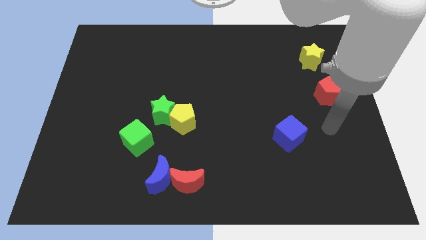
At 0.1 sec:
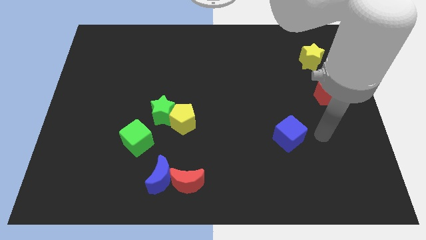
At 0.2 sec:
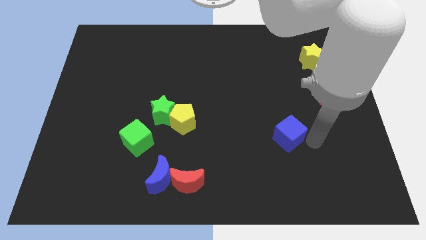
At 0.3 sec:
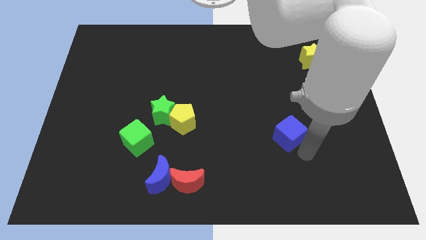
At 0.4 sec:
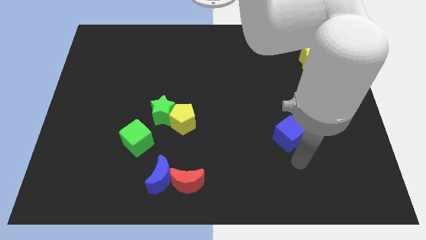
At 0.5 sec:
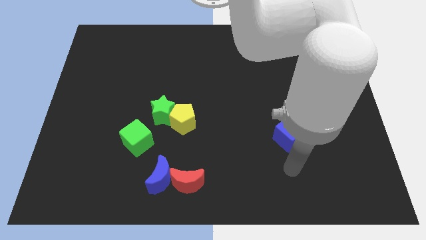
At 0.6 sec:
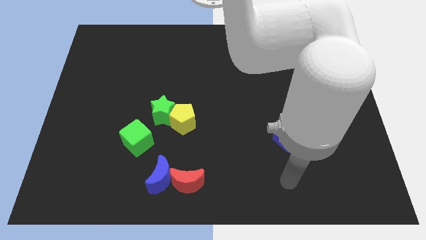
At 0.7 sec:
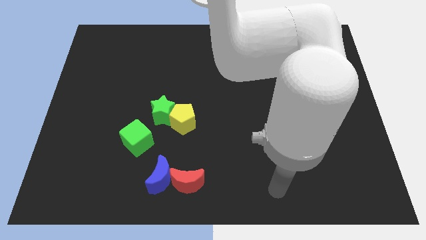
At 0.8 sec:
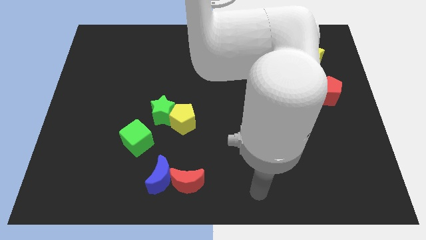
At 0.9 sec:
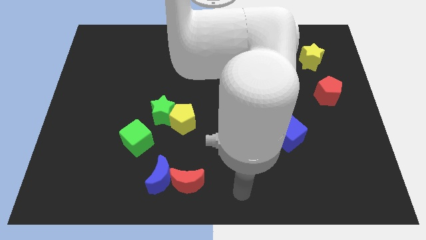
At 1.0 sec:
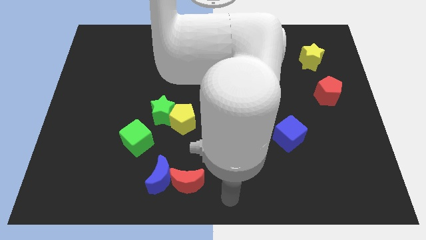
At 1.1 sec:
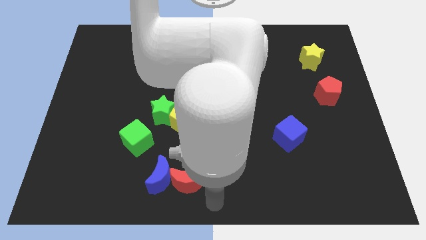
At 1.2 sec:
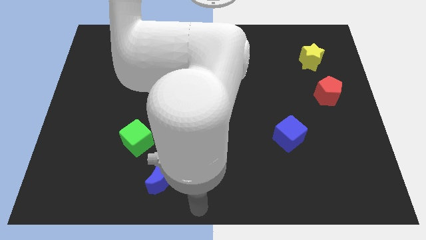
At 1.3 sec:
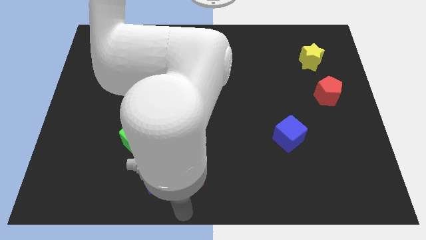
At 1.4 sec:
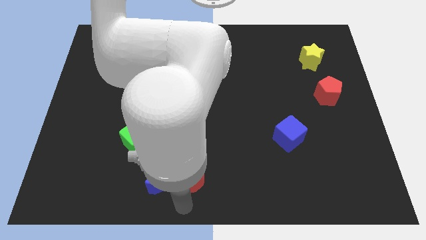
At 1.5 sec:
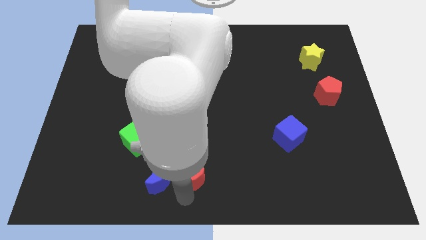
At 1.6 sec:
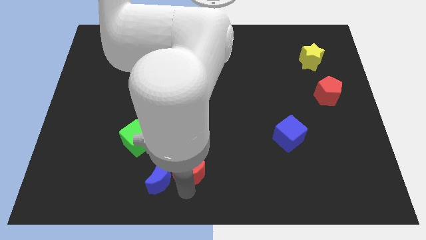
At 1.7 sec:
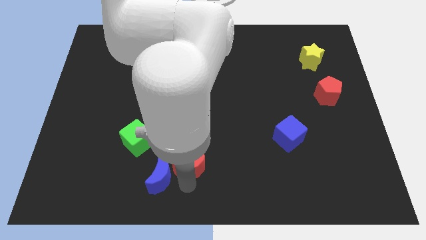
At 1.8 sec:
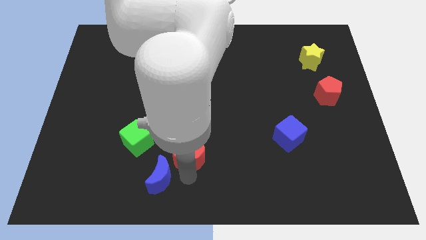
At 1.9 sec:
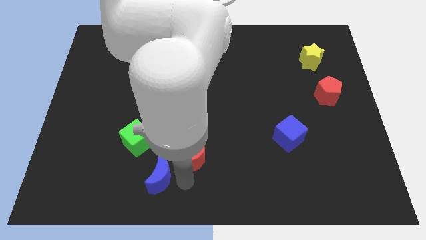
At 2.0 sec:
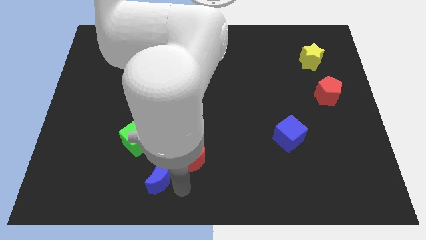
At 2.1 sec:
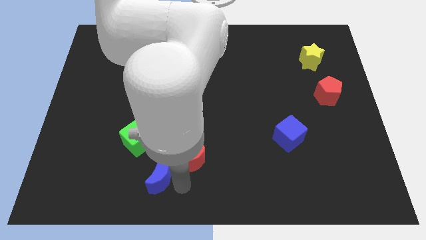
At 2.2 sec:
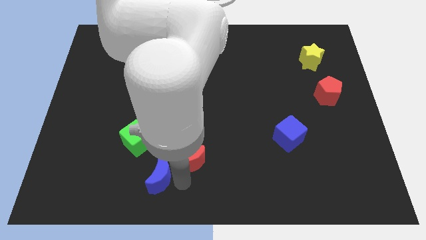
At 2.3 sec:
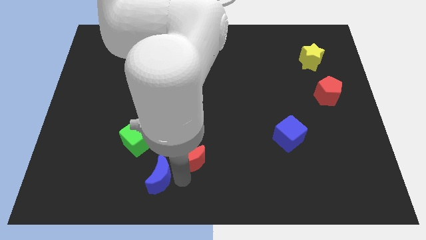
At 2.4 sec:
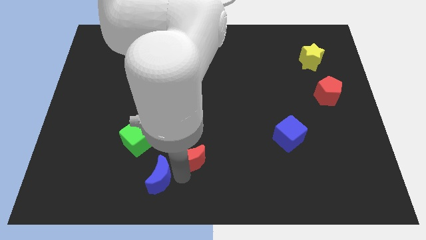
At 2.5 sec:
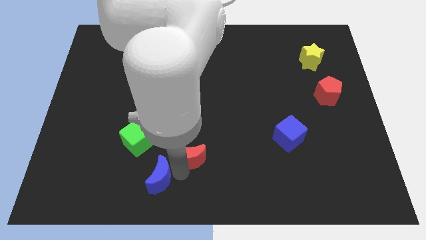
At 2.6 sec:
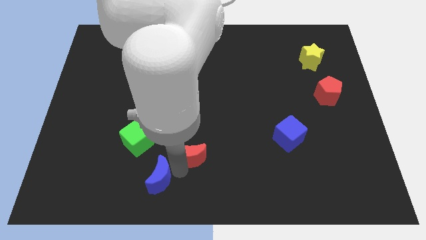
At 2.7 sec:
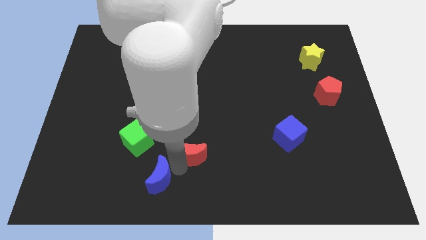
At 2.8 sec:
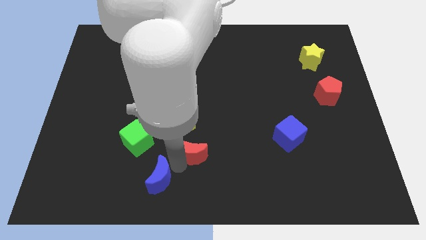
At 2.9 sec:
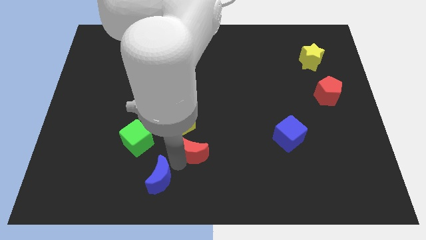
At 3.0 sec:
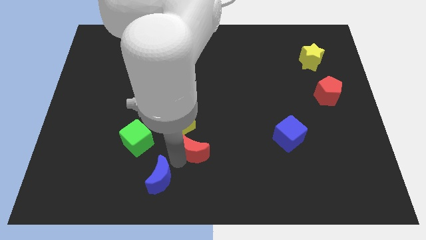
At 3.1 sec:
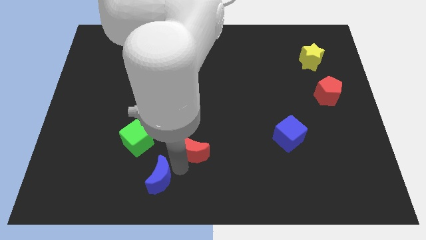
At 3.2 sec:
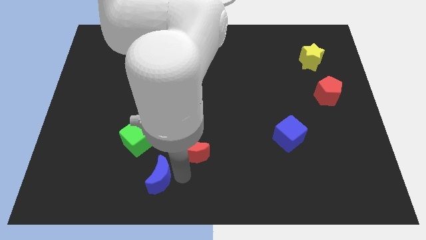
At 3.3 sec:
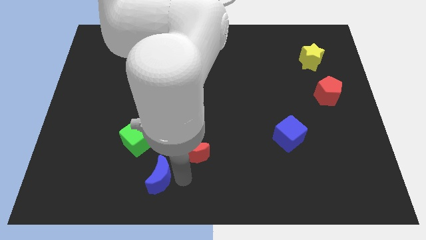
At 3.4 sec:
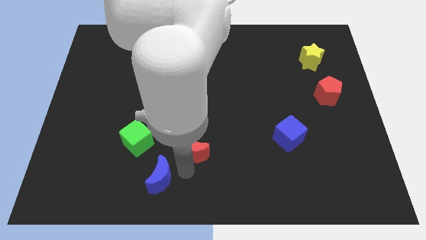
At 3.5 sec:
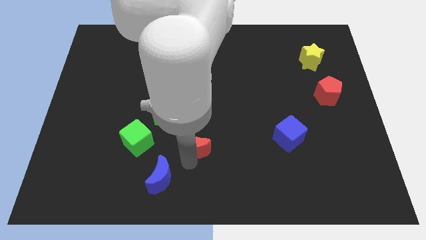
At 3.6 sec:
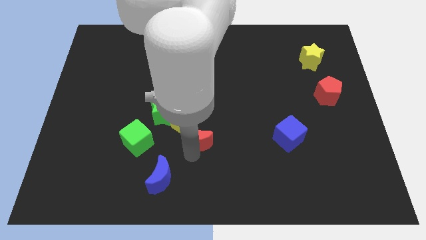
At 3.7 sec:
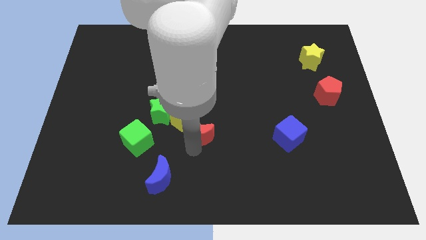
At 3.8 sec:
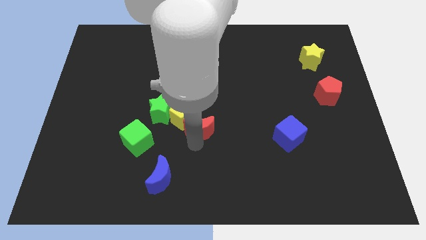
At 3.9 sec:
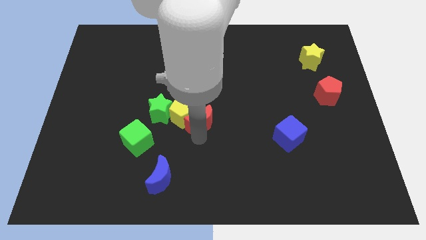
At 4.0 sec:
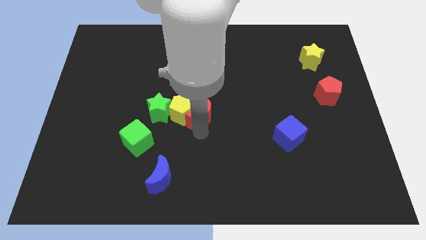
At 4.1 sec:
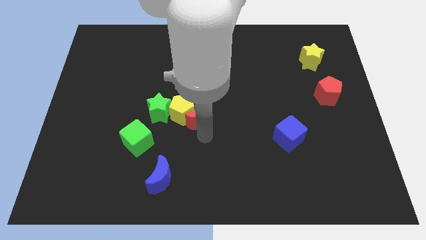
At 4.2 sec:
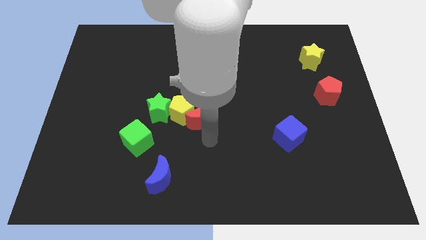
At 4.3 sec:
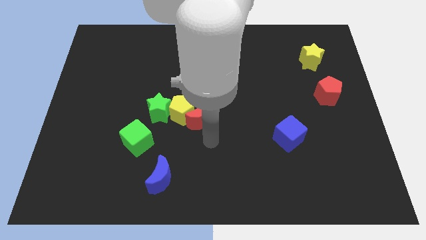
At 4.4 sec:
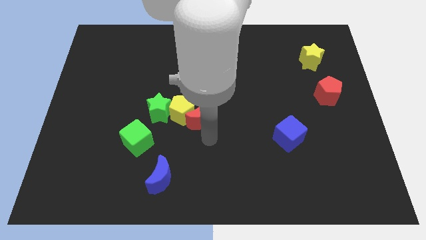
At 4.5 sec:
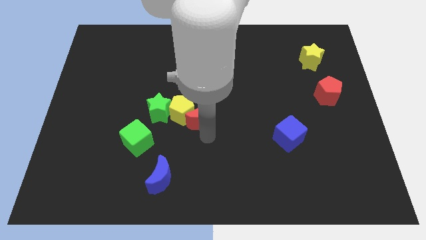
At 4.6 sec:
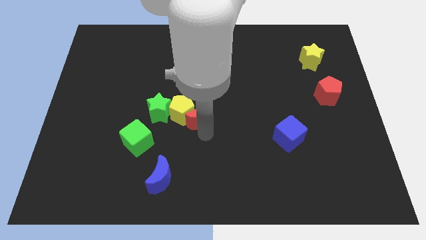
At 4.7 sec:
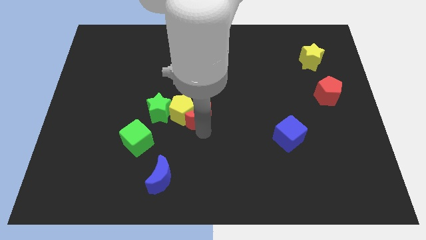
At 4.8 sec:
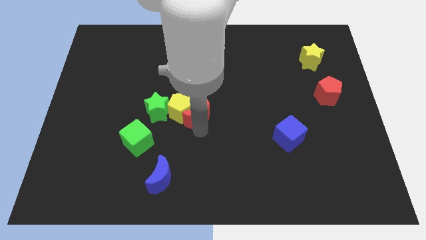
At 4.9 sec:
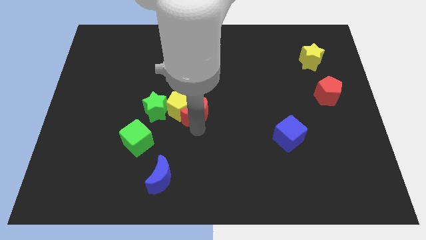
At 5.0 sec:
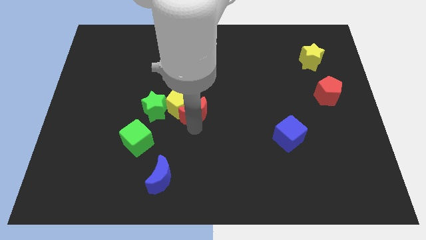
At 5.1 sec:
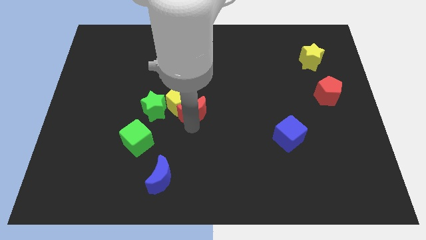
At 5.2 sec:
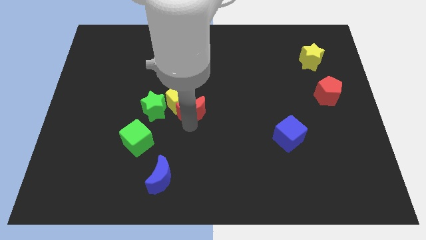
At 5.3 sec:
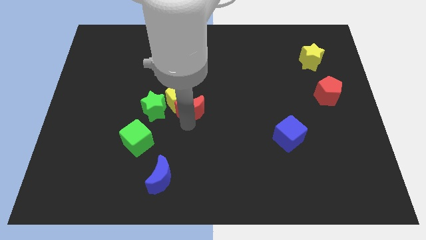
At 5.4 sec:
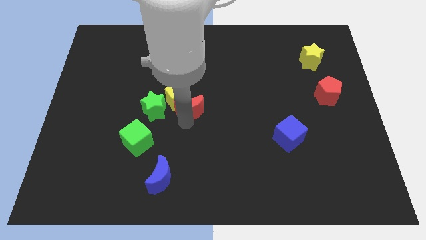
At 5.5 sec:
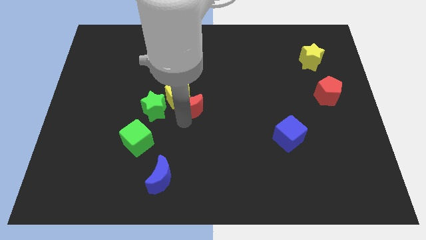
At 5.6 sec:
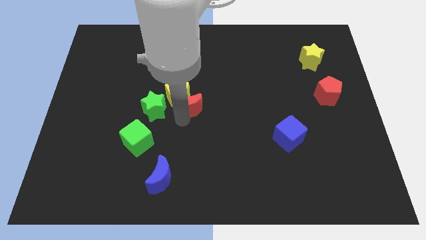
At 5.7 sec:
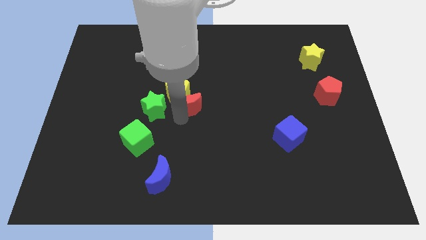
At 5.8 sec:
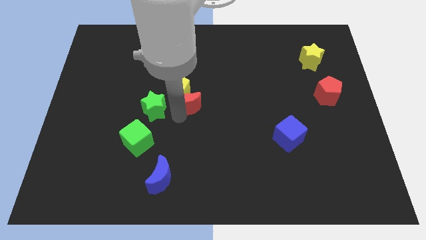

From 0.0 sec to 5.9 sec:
push the red moon upwards

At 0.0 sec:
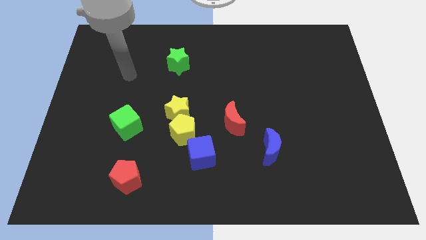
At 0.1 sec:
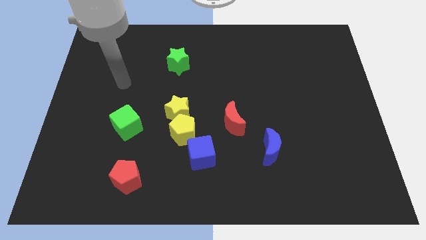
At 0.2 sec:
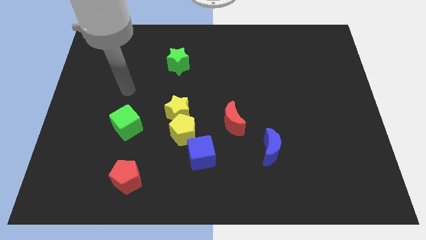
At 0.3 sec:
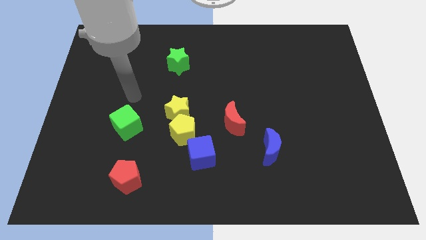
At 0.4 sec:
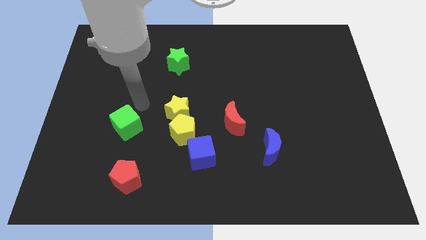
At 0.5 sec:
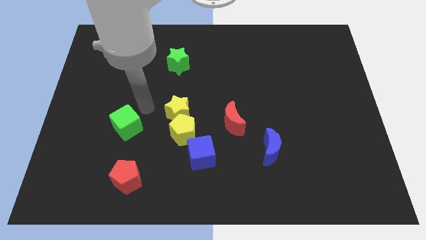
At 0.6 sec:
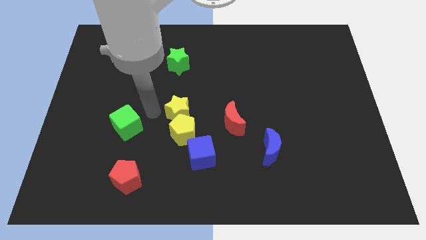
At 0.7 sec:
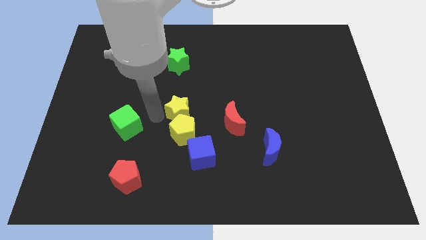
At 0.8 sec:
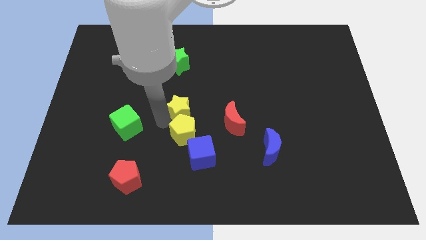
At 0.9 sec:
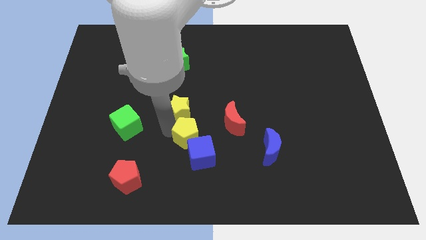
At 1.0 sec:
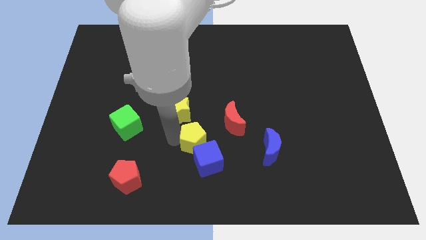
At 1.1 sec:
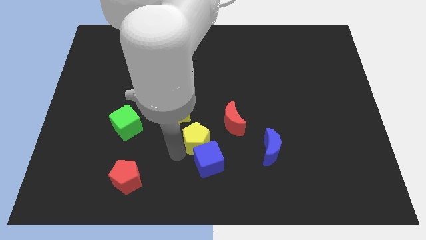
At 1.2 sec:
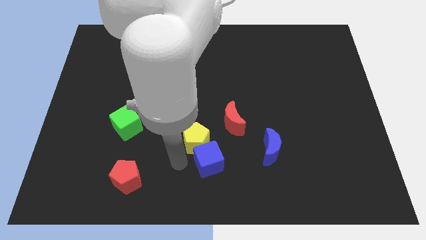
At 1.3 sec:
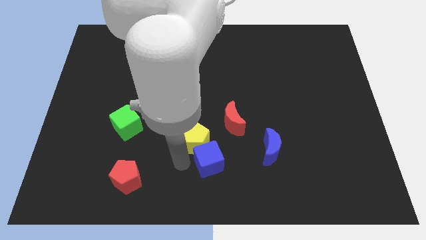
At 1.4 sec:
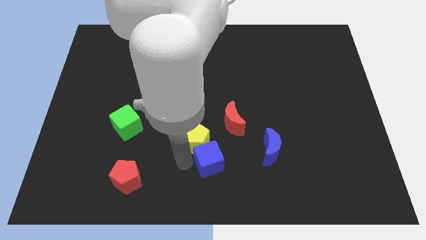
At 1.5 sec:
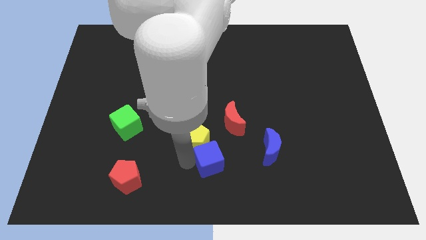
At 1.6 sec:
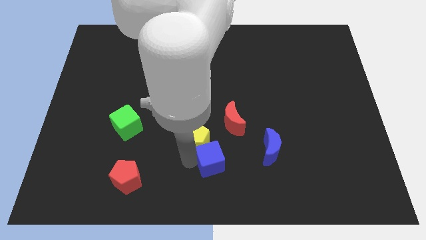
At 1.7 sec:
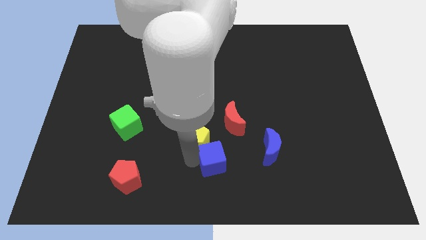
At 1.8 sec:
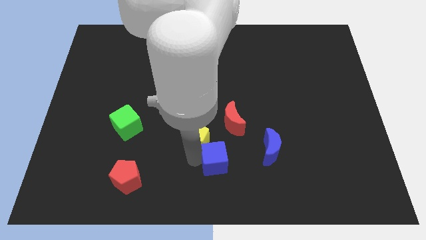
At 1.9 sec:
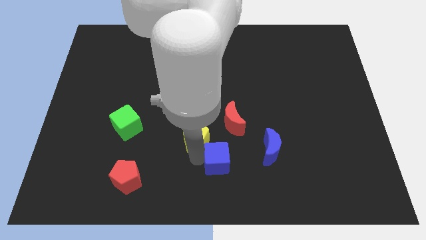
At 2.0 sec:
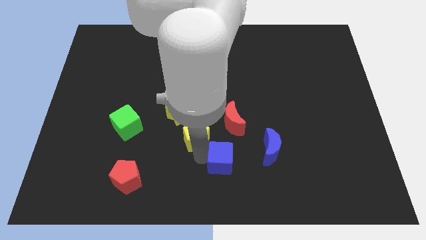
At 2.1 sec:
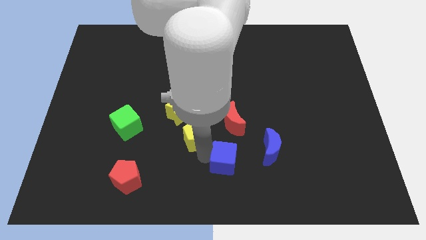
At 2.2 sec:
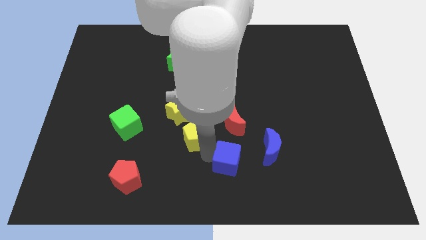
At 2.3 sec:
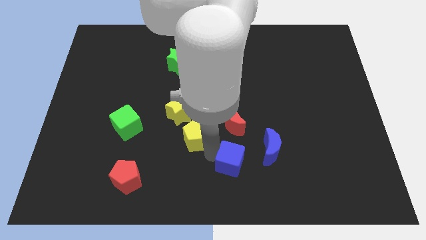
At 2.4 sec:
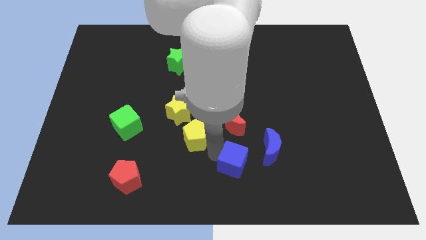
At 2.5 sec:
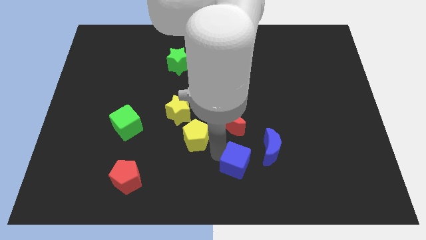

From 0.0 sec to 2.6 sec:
push the blue cube a little bit to the right
